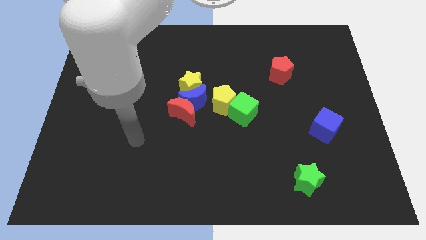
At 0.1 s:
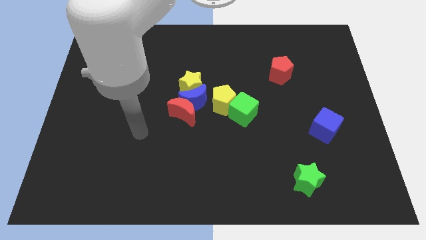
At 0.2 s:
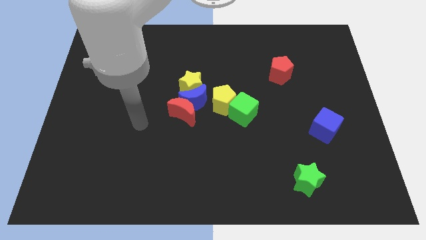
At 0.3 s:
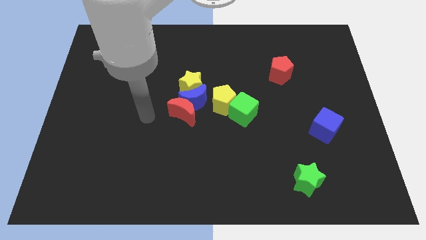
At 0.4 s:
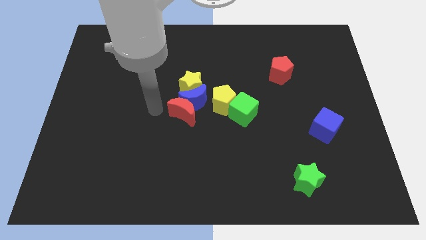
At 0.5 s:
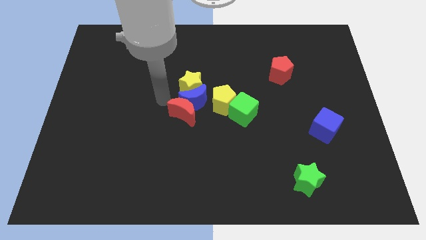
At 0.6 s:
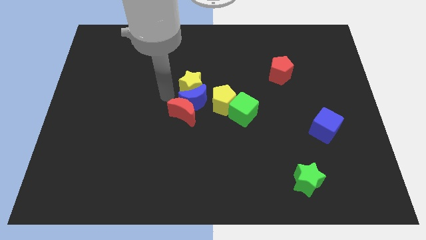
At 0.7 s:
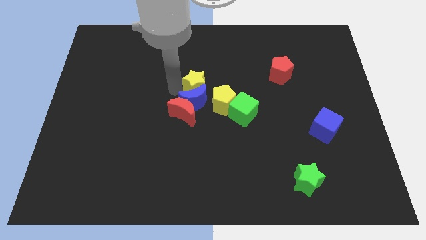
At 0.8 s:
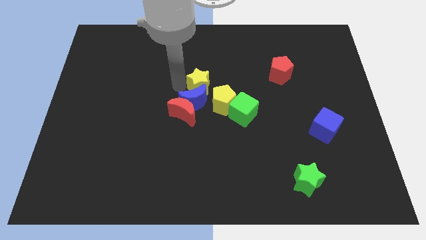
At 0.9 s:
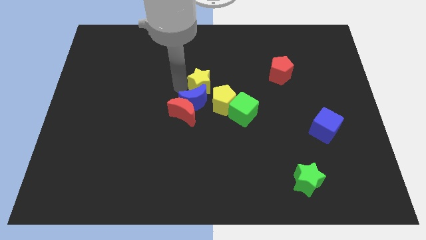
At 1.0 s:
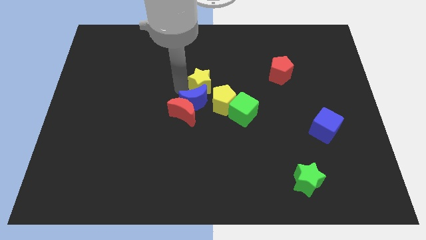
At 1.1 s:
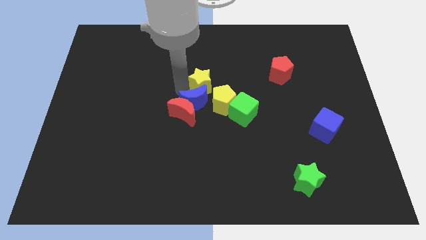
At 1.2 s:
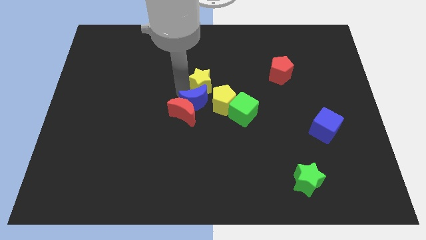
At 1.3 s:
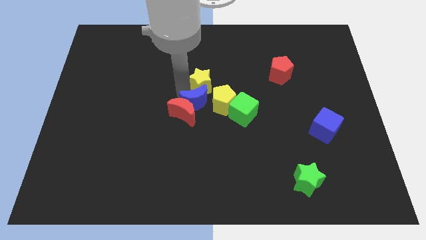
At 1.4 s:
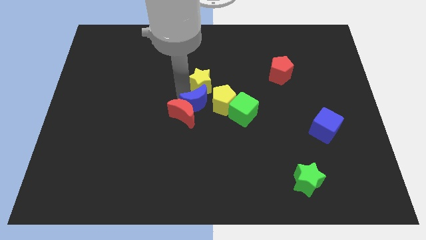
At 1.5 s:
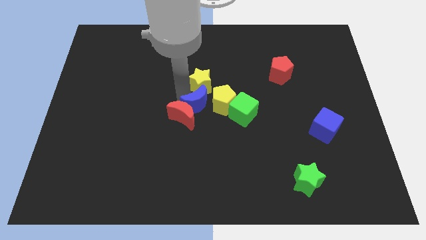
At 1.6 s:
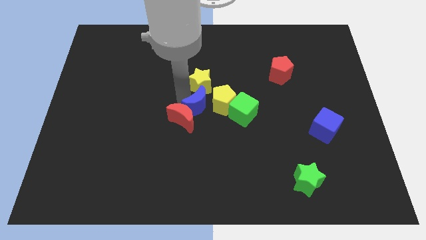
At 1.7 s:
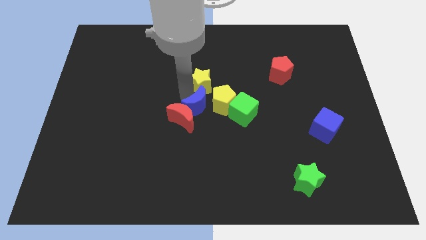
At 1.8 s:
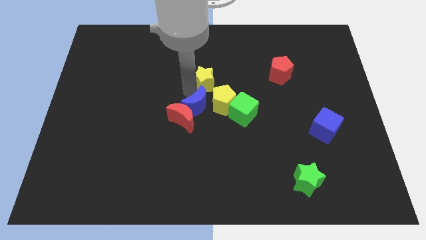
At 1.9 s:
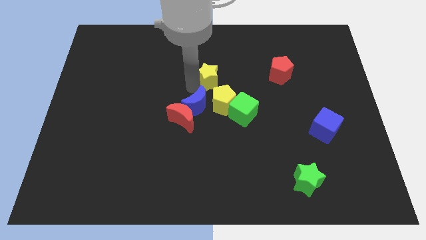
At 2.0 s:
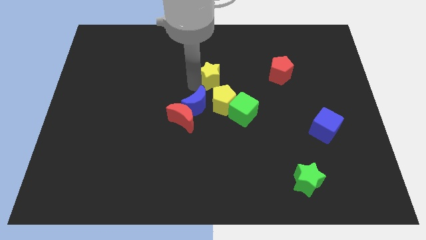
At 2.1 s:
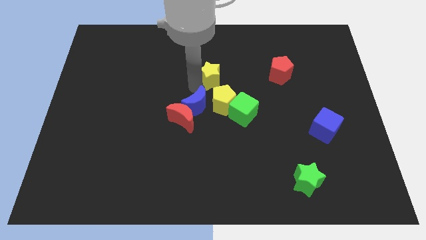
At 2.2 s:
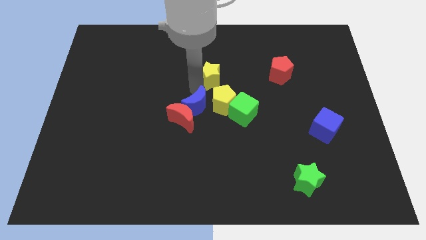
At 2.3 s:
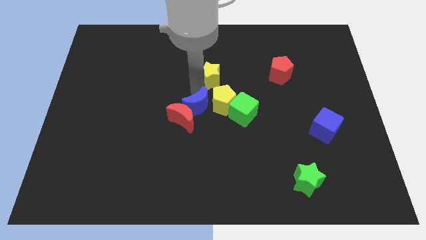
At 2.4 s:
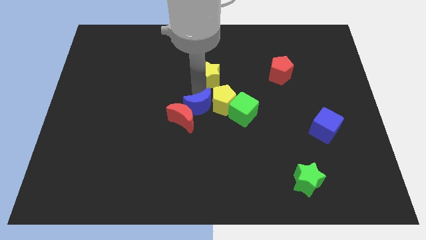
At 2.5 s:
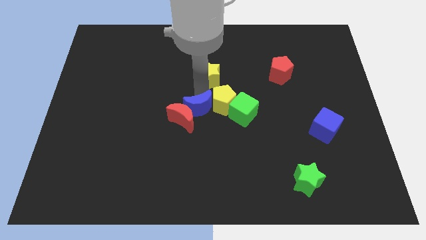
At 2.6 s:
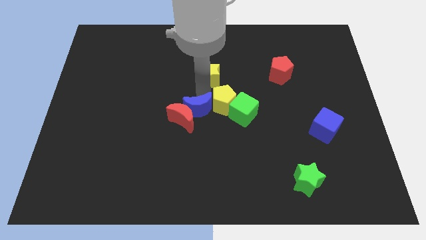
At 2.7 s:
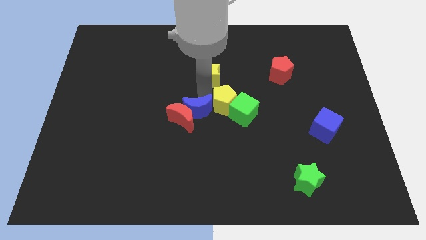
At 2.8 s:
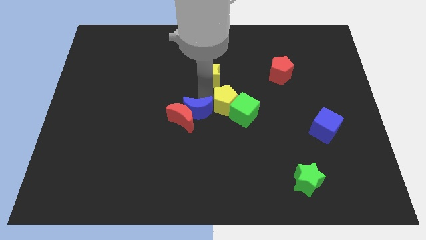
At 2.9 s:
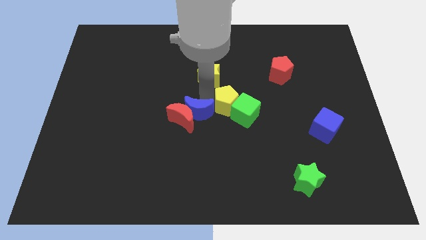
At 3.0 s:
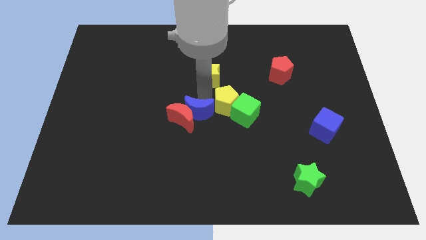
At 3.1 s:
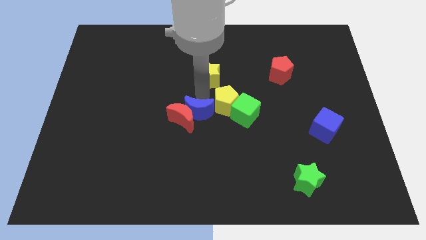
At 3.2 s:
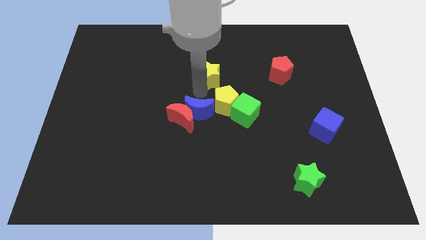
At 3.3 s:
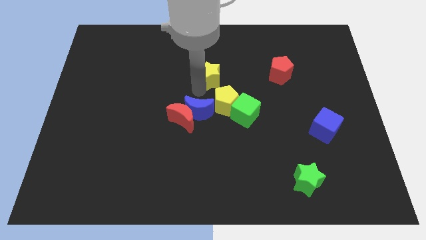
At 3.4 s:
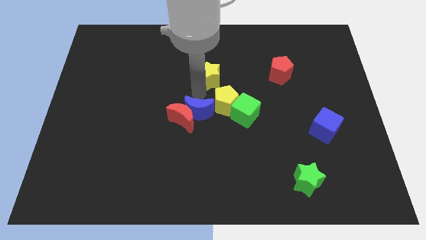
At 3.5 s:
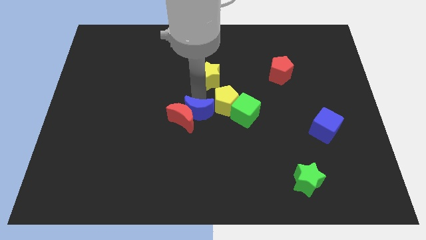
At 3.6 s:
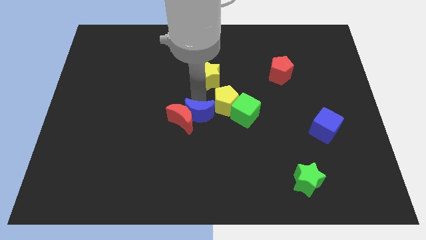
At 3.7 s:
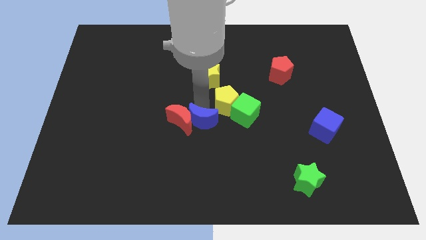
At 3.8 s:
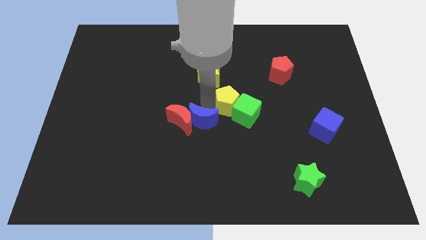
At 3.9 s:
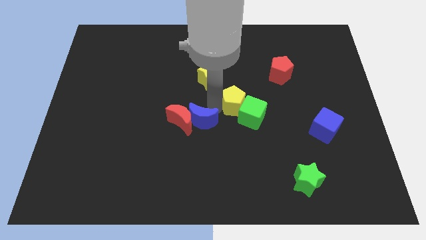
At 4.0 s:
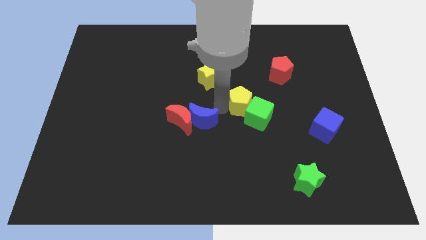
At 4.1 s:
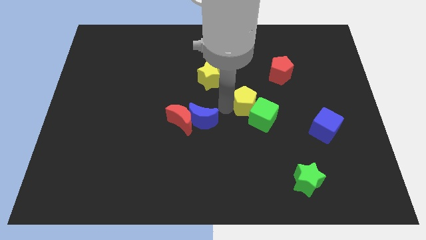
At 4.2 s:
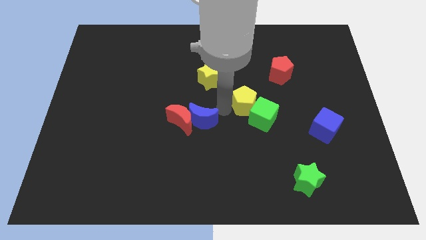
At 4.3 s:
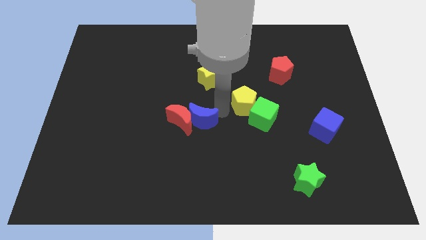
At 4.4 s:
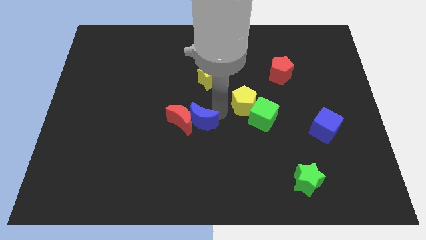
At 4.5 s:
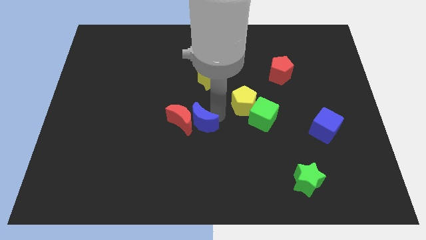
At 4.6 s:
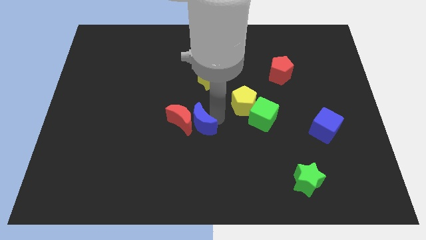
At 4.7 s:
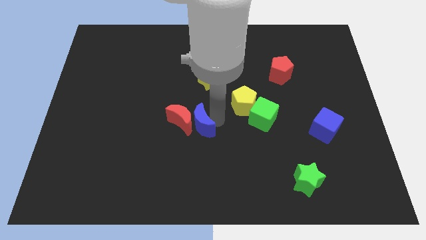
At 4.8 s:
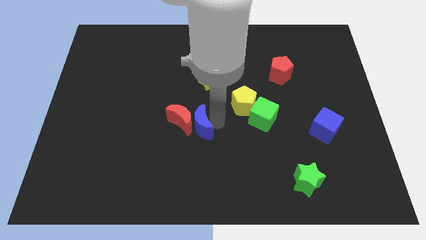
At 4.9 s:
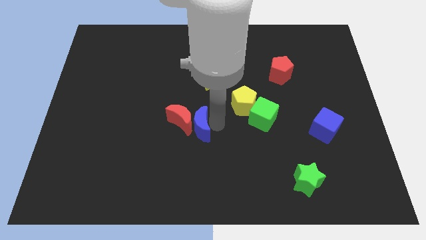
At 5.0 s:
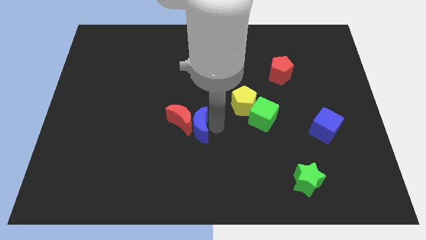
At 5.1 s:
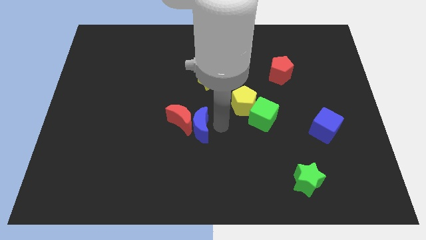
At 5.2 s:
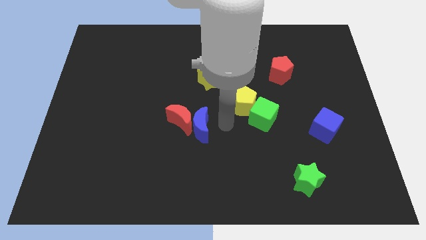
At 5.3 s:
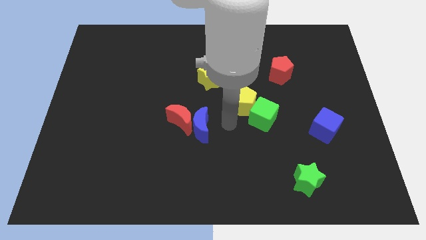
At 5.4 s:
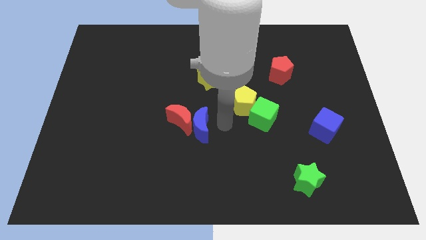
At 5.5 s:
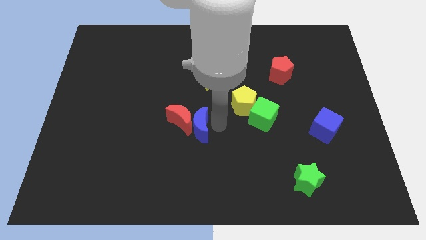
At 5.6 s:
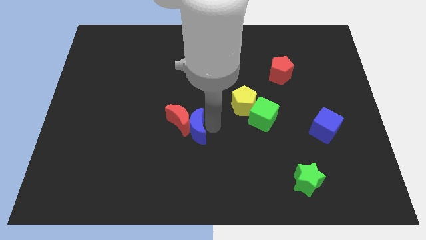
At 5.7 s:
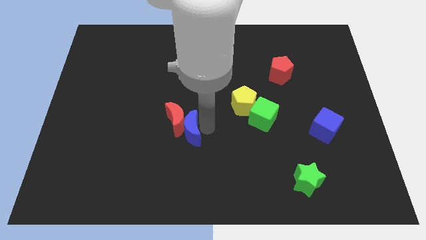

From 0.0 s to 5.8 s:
pull the blue moon apart from the red moon, yellow star, and yellow pentagon

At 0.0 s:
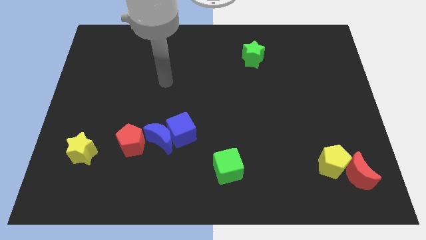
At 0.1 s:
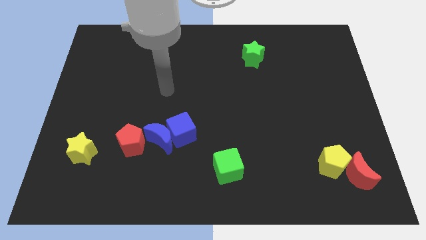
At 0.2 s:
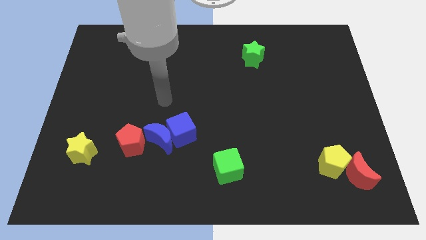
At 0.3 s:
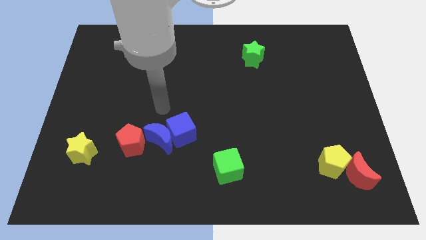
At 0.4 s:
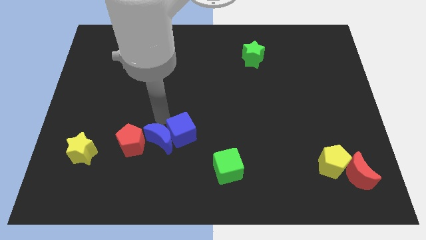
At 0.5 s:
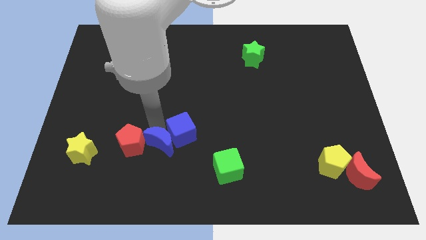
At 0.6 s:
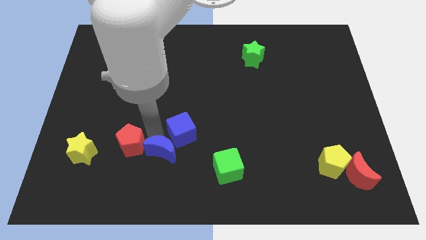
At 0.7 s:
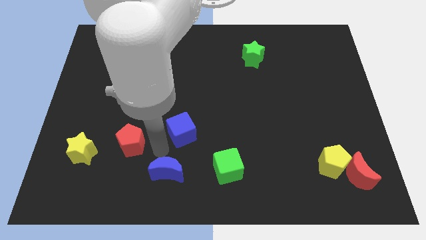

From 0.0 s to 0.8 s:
pull the blue cube apart from the blue moon

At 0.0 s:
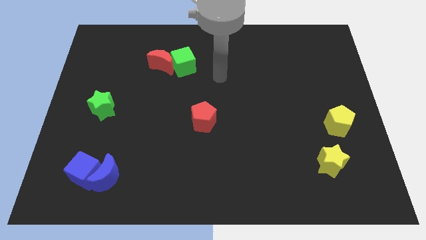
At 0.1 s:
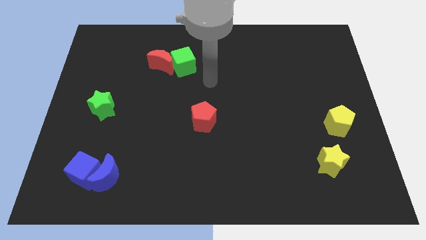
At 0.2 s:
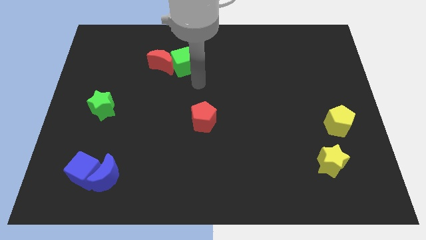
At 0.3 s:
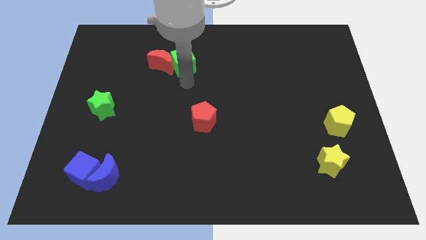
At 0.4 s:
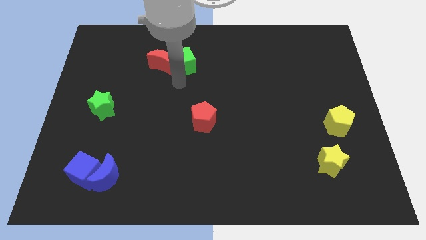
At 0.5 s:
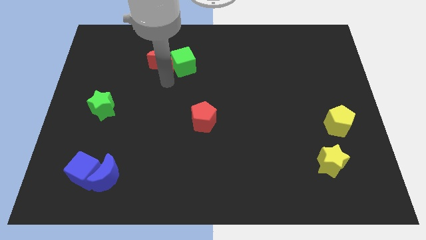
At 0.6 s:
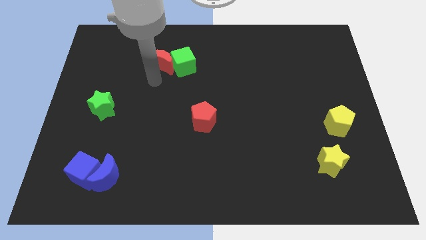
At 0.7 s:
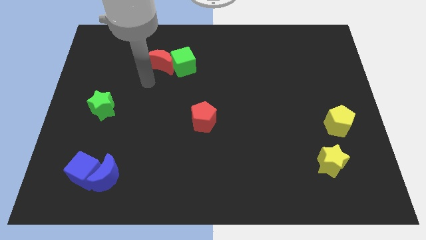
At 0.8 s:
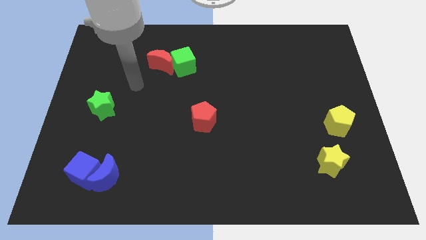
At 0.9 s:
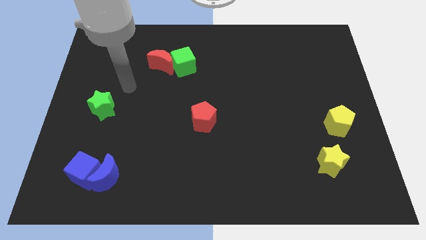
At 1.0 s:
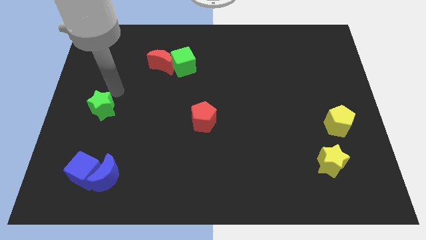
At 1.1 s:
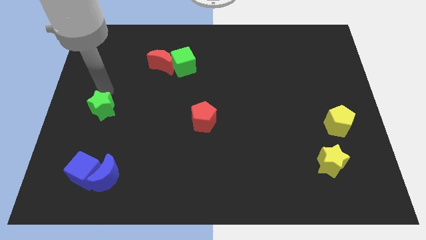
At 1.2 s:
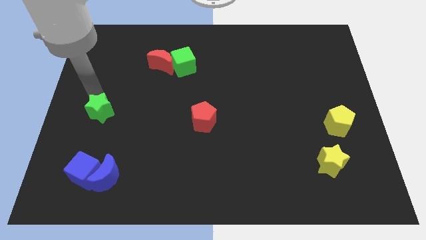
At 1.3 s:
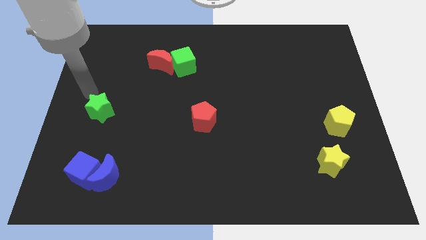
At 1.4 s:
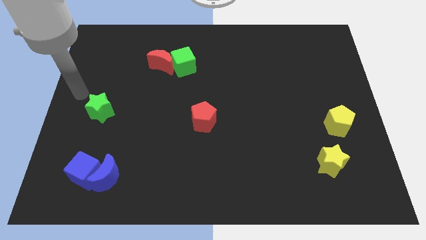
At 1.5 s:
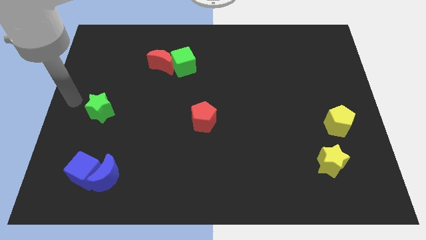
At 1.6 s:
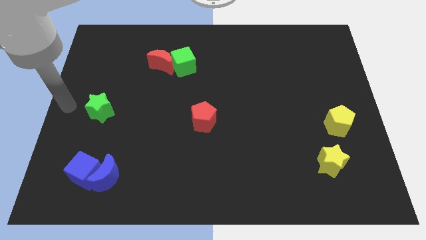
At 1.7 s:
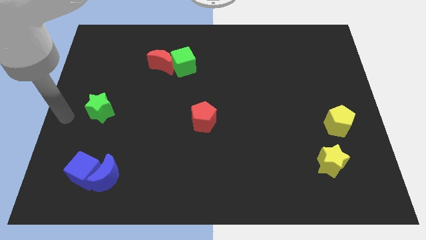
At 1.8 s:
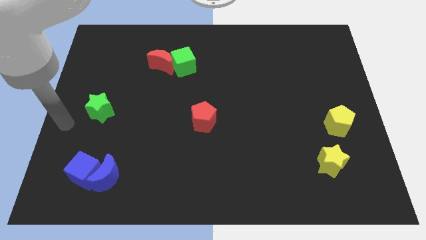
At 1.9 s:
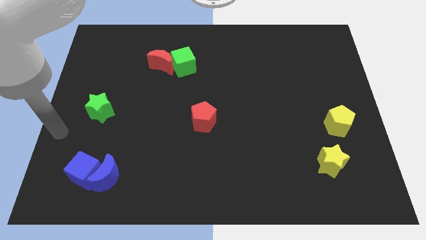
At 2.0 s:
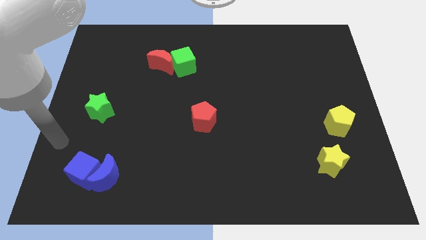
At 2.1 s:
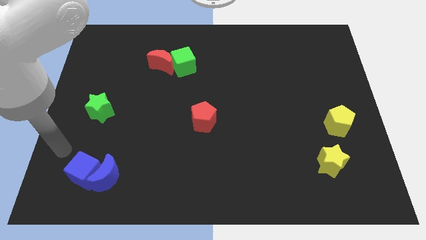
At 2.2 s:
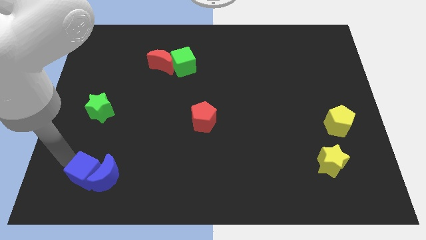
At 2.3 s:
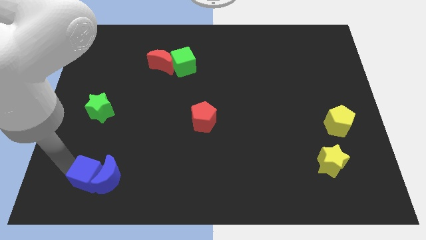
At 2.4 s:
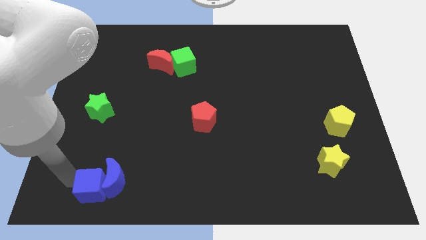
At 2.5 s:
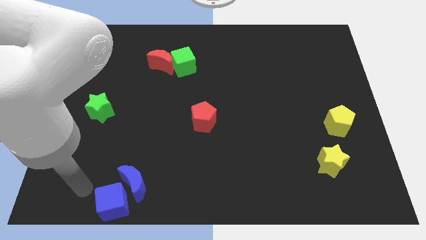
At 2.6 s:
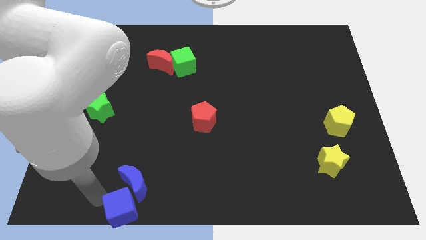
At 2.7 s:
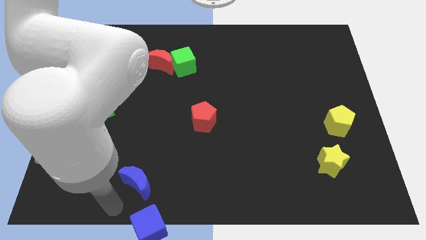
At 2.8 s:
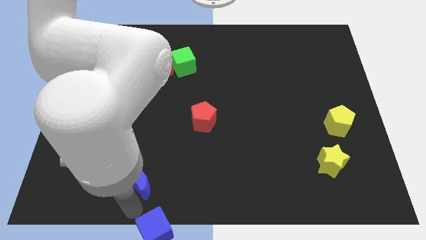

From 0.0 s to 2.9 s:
pull the blue moon apart from the blue cube
